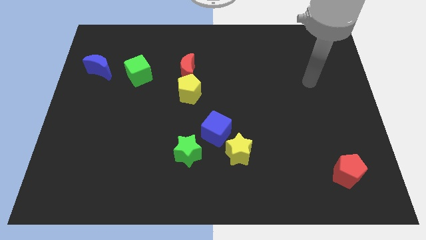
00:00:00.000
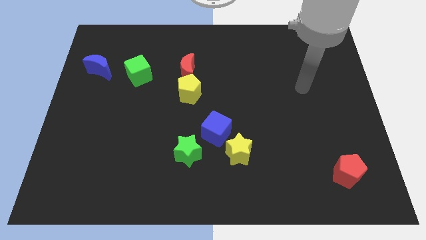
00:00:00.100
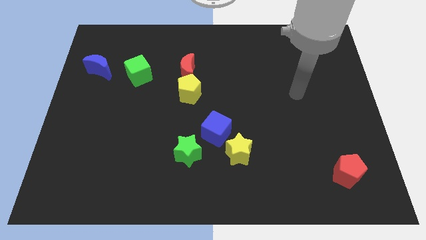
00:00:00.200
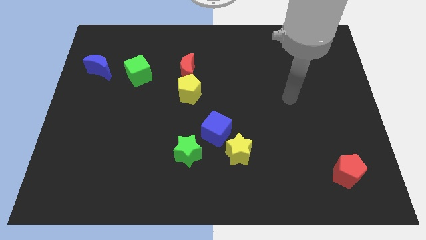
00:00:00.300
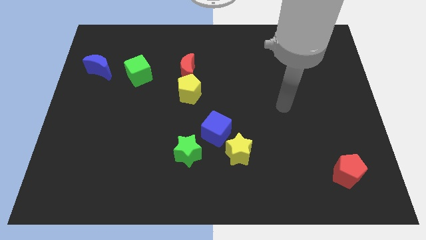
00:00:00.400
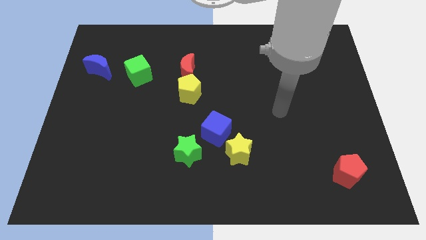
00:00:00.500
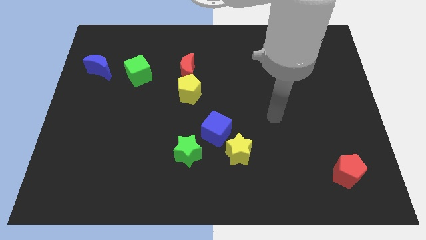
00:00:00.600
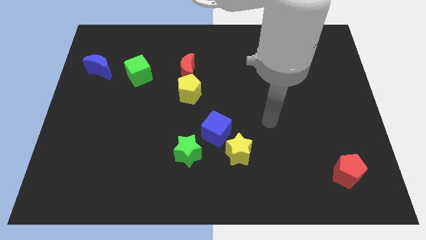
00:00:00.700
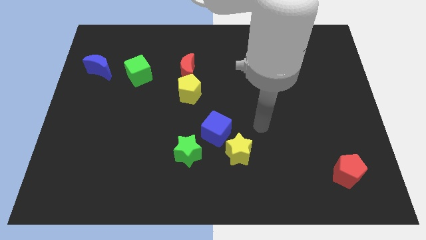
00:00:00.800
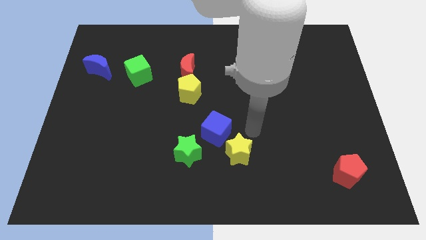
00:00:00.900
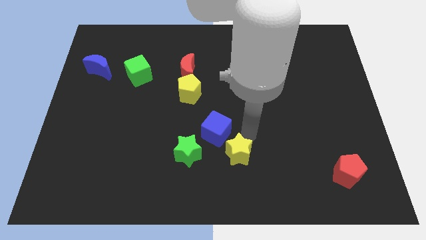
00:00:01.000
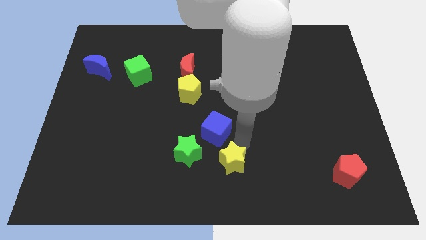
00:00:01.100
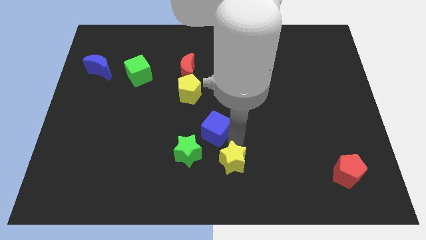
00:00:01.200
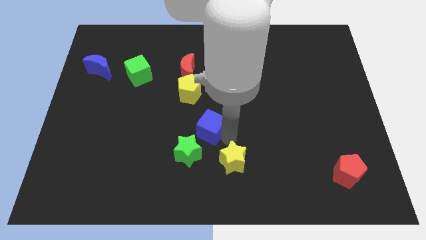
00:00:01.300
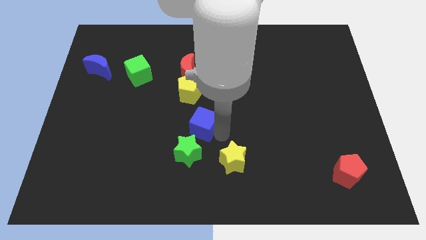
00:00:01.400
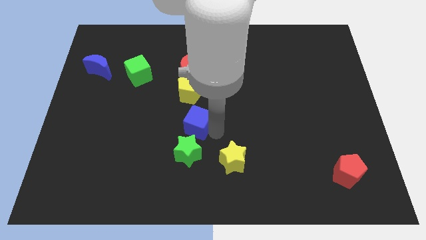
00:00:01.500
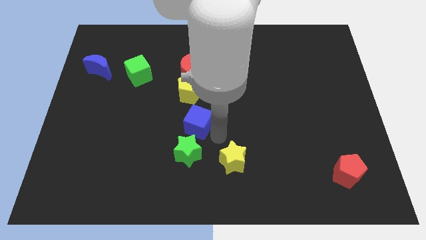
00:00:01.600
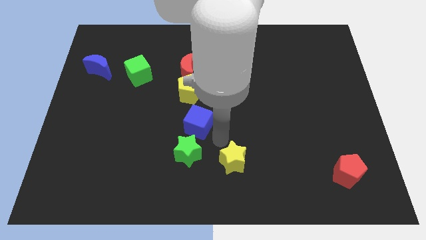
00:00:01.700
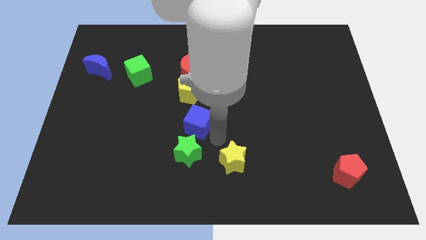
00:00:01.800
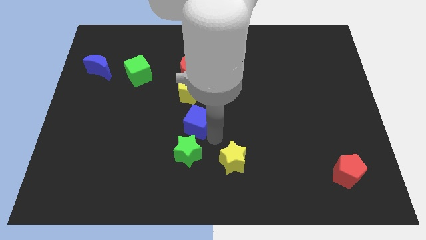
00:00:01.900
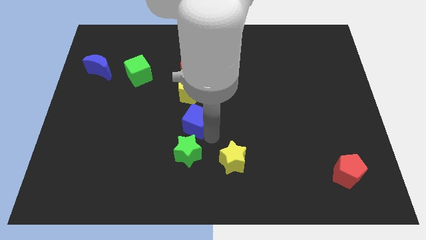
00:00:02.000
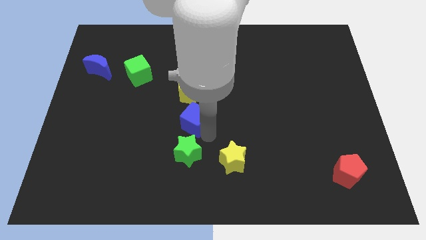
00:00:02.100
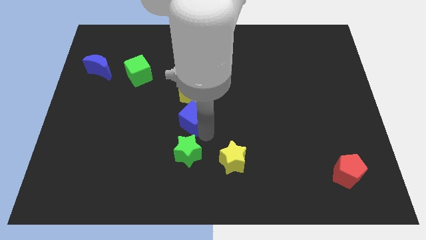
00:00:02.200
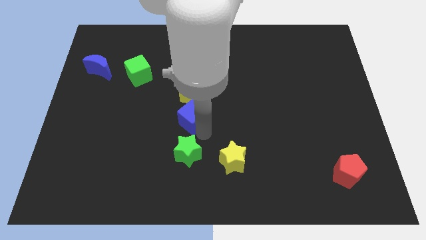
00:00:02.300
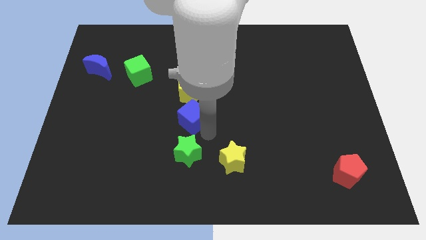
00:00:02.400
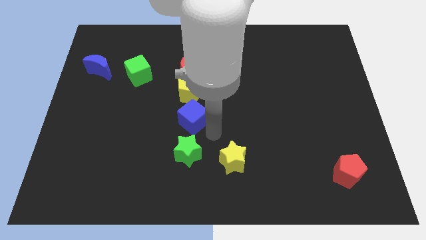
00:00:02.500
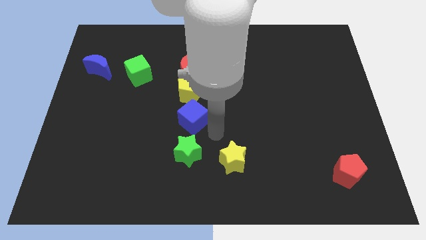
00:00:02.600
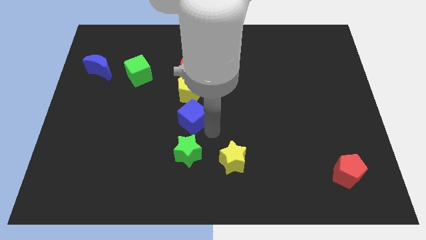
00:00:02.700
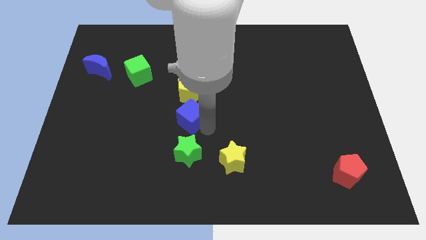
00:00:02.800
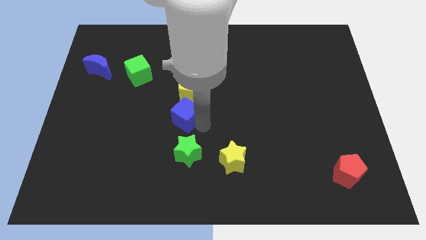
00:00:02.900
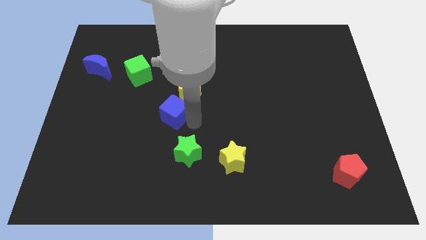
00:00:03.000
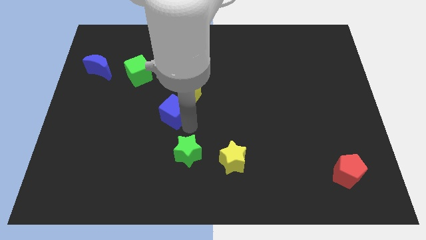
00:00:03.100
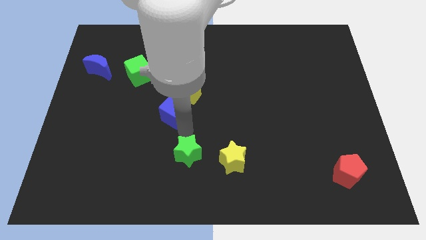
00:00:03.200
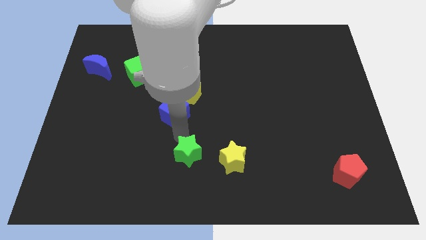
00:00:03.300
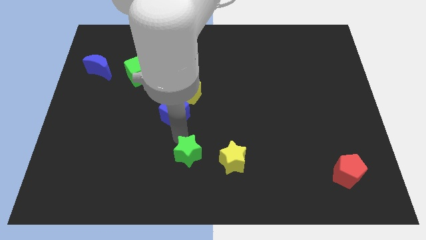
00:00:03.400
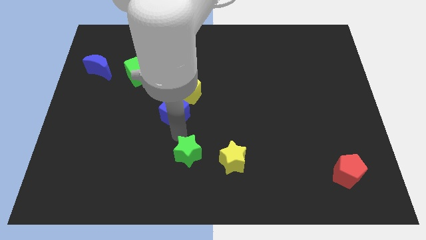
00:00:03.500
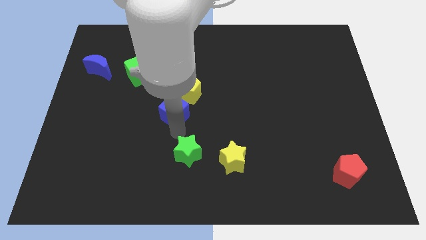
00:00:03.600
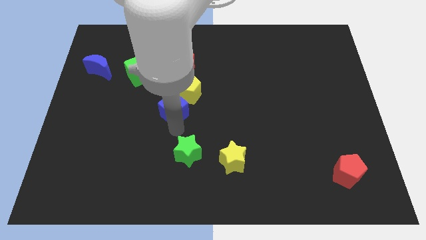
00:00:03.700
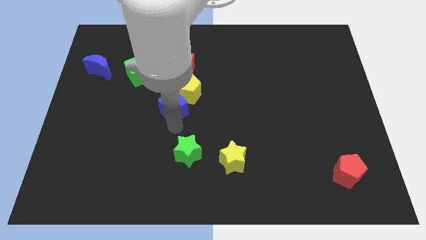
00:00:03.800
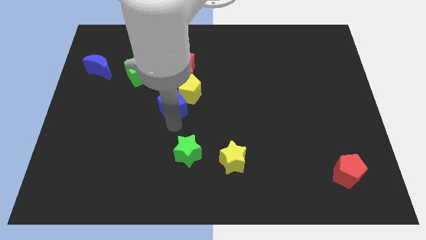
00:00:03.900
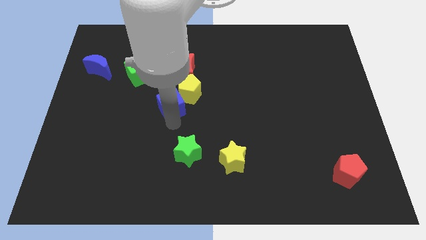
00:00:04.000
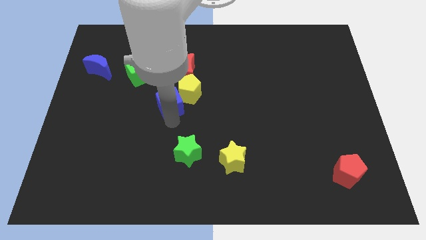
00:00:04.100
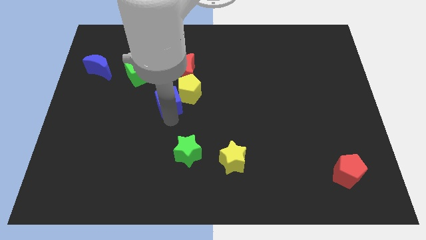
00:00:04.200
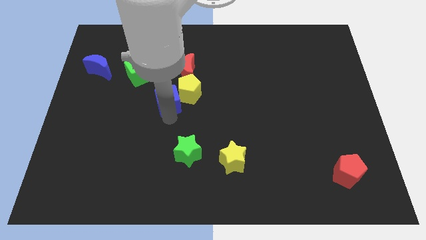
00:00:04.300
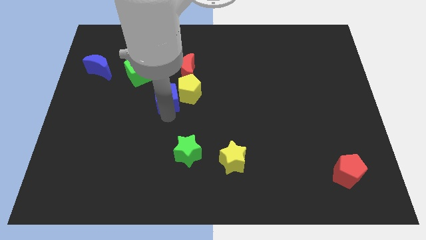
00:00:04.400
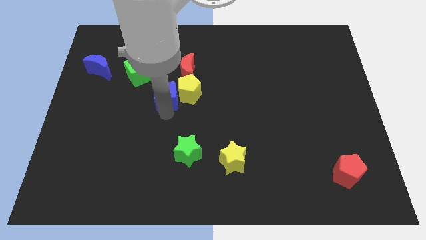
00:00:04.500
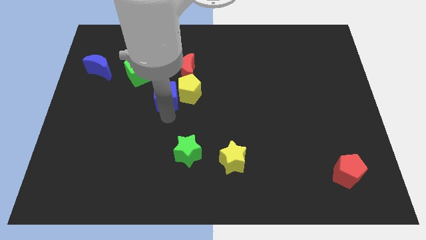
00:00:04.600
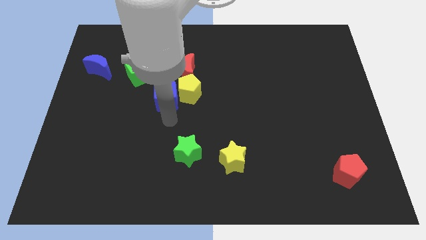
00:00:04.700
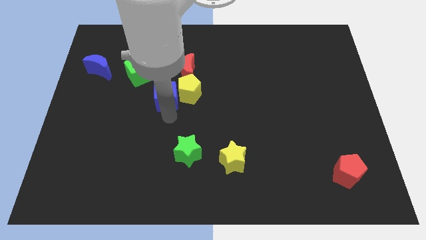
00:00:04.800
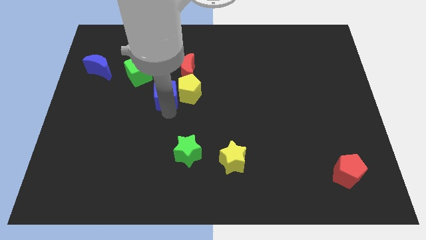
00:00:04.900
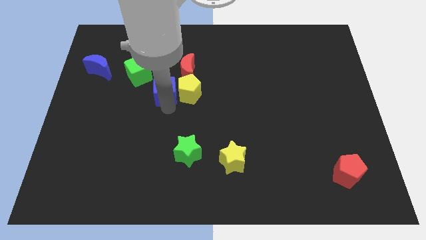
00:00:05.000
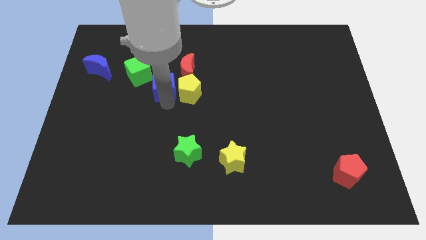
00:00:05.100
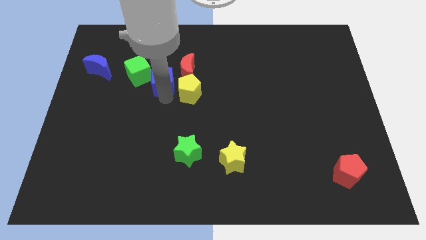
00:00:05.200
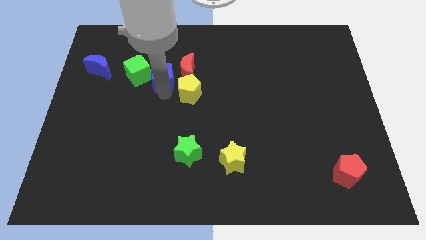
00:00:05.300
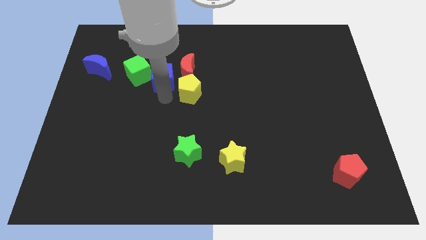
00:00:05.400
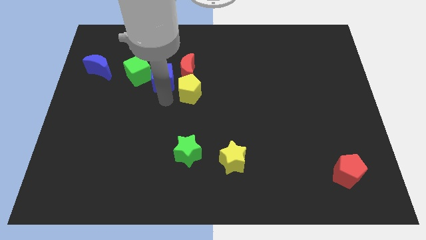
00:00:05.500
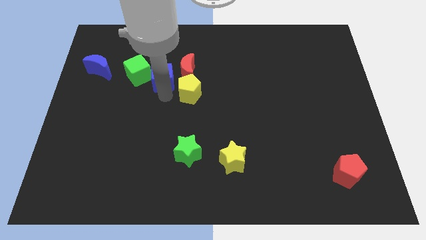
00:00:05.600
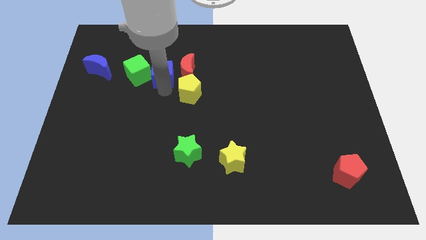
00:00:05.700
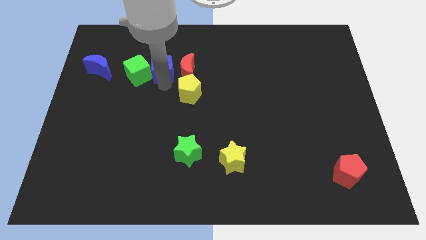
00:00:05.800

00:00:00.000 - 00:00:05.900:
slide the blue cube to the top right side of the green cube
